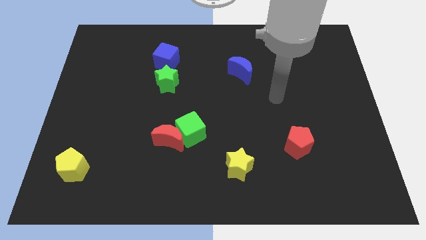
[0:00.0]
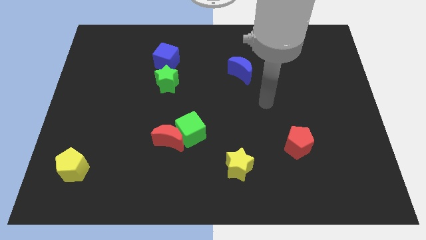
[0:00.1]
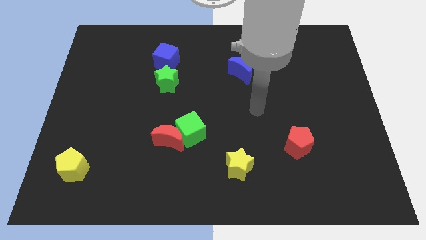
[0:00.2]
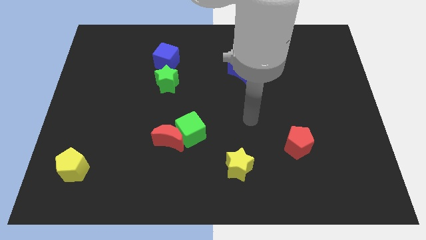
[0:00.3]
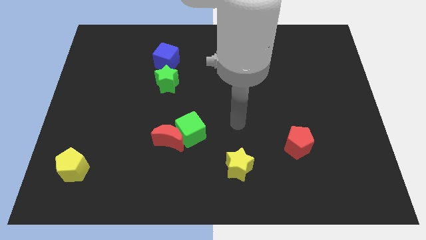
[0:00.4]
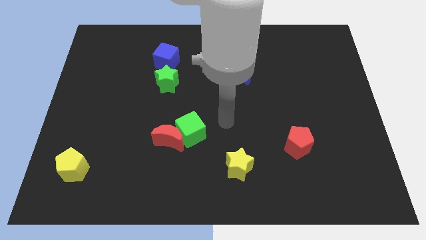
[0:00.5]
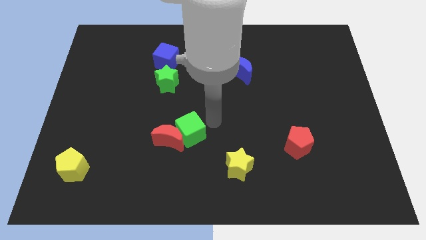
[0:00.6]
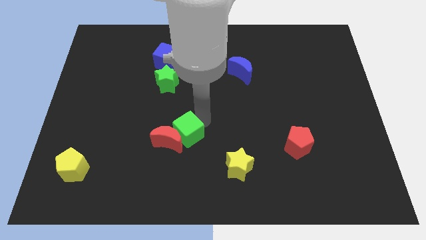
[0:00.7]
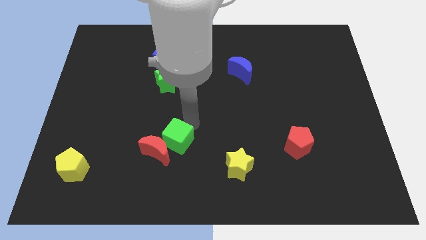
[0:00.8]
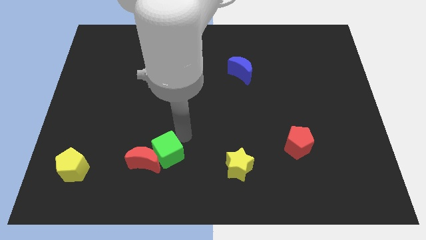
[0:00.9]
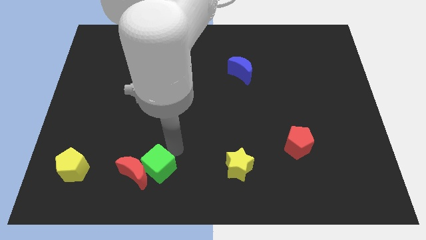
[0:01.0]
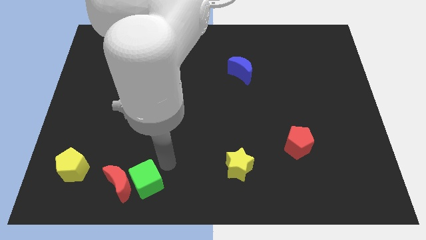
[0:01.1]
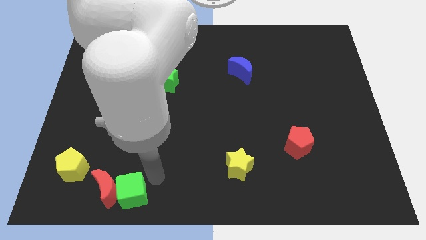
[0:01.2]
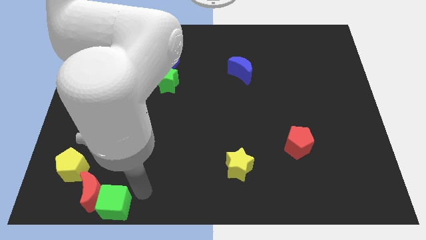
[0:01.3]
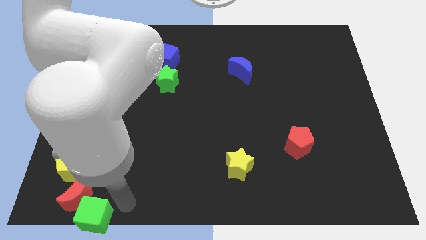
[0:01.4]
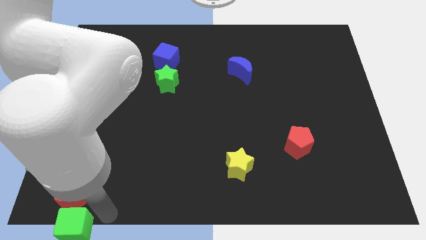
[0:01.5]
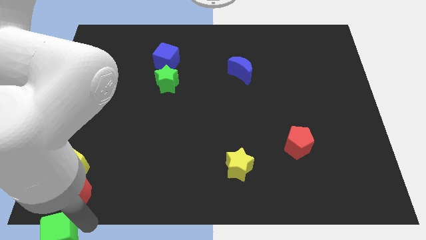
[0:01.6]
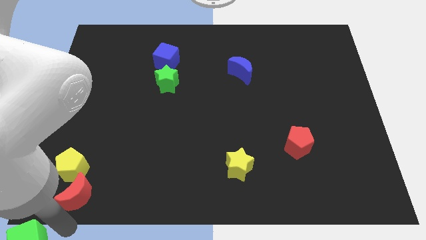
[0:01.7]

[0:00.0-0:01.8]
separate the red moon from the green cube

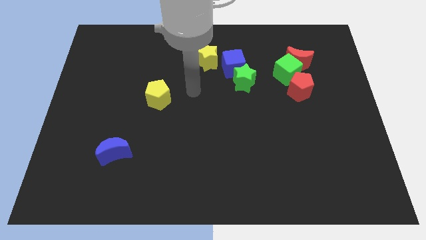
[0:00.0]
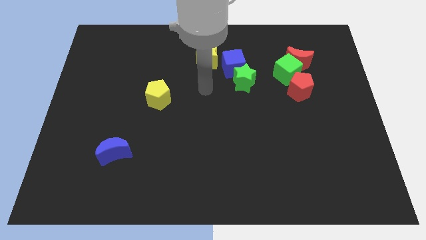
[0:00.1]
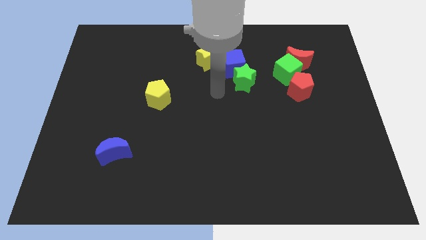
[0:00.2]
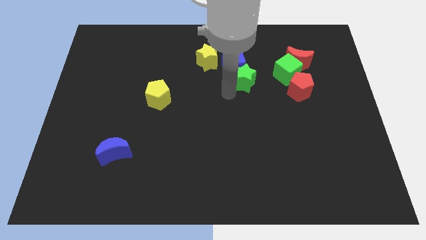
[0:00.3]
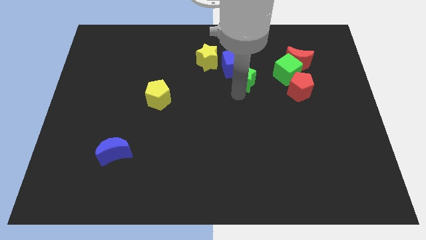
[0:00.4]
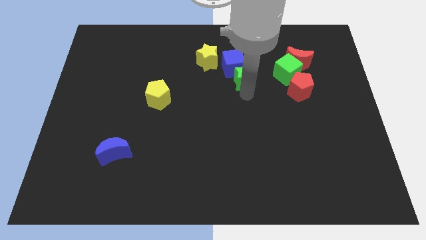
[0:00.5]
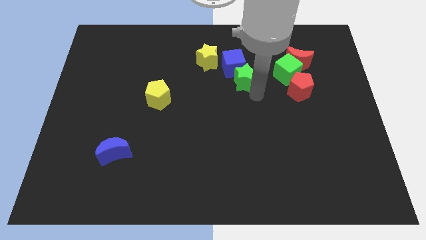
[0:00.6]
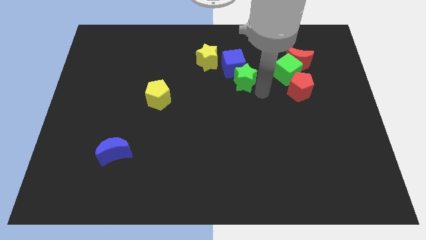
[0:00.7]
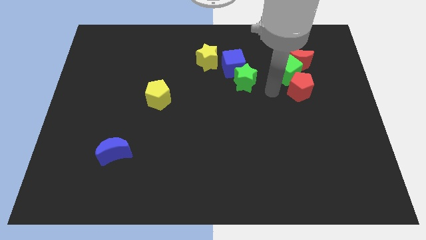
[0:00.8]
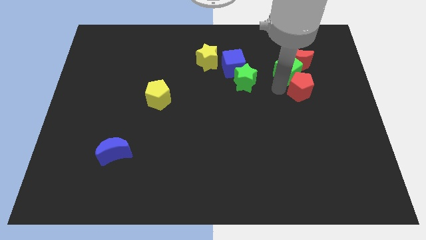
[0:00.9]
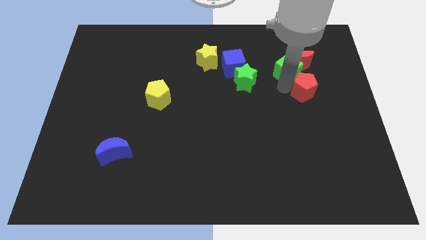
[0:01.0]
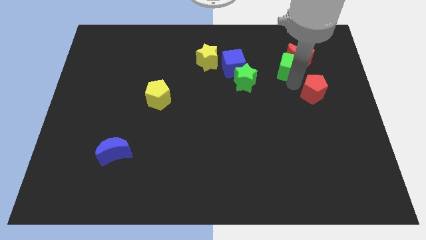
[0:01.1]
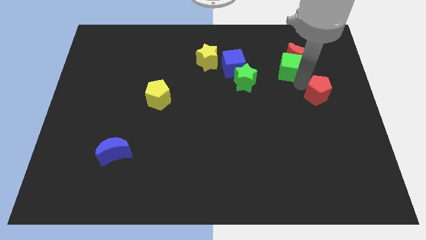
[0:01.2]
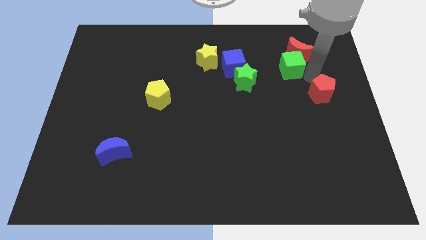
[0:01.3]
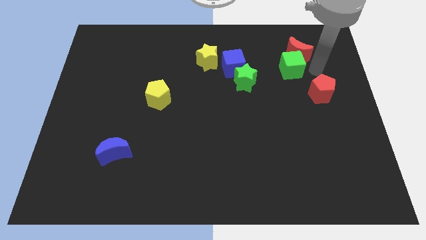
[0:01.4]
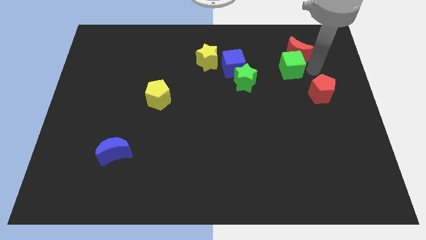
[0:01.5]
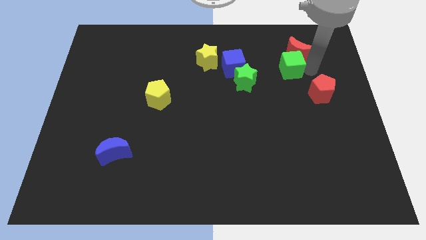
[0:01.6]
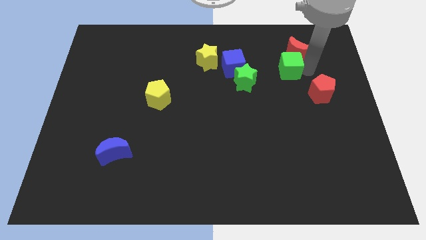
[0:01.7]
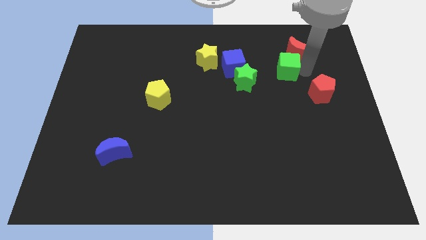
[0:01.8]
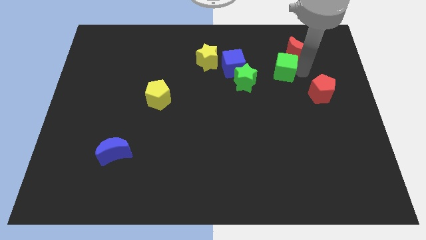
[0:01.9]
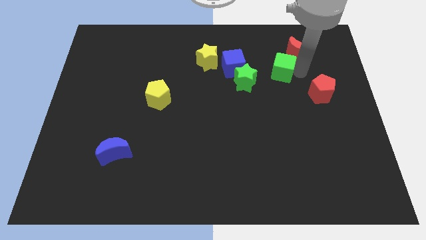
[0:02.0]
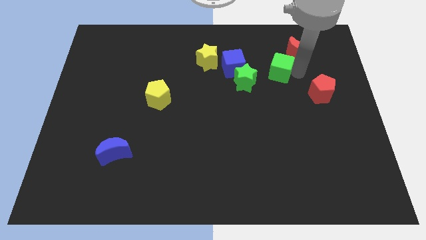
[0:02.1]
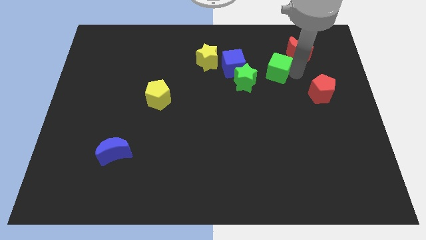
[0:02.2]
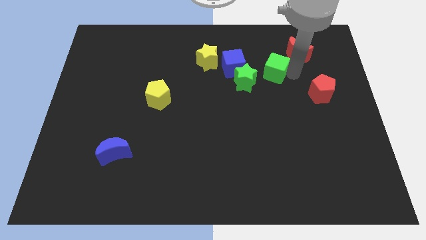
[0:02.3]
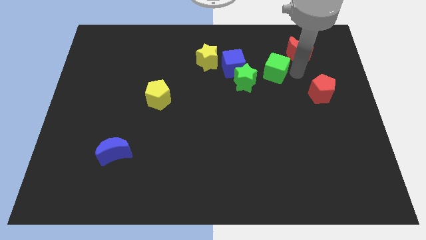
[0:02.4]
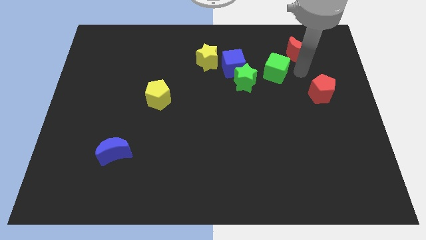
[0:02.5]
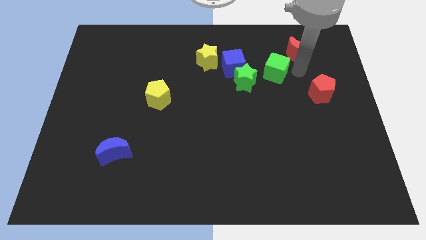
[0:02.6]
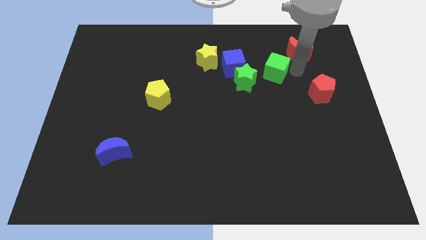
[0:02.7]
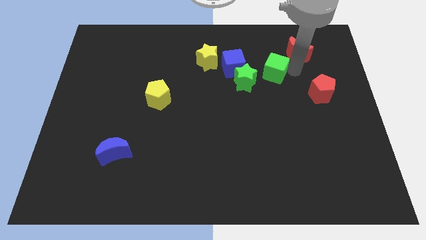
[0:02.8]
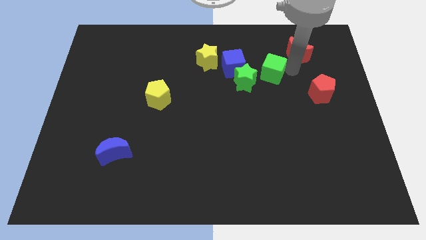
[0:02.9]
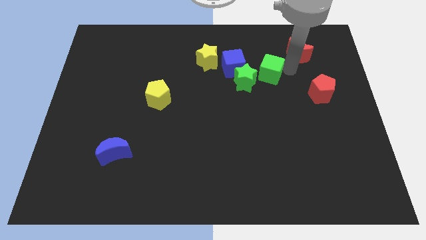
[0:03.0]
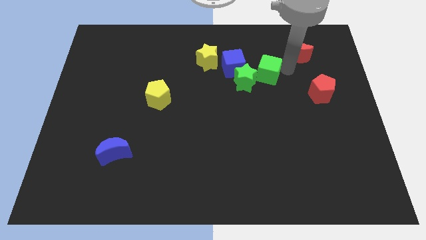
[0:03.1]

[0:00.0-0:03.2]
separate the green cube from the red moon and red pentagon

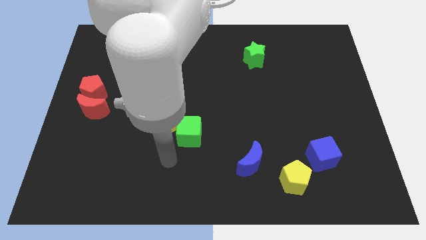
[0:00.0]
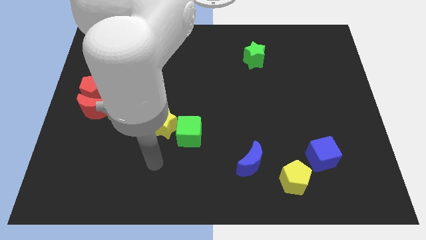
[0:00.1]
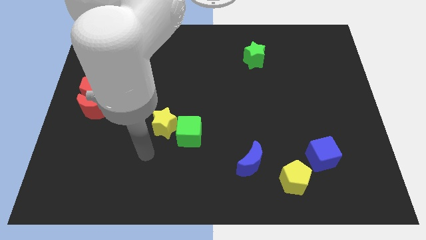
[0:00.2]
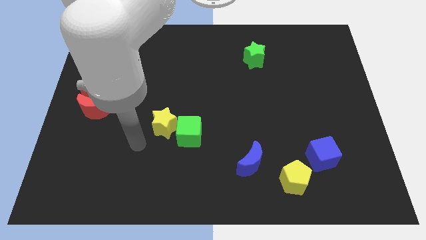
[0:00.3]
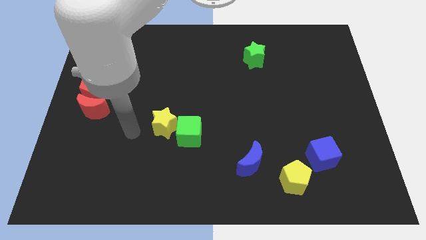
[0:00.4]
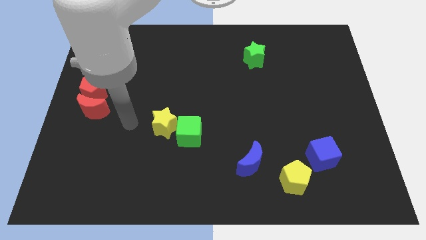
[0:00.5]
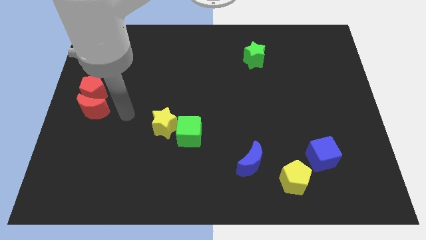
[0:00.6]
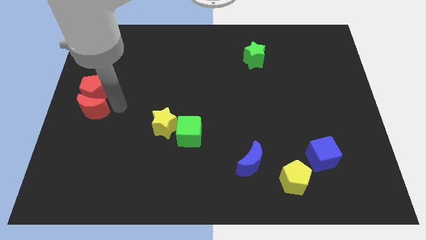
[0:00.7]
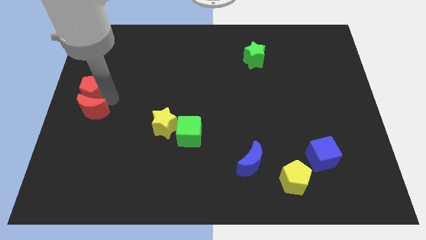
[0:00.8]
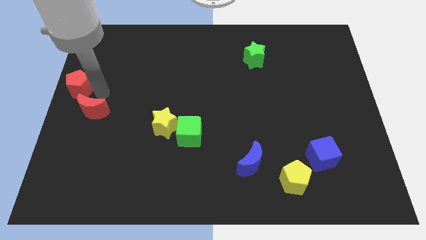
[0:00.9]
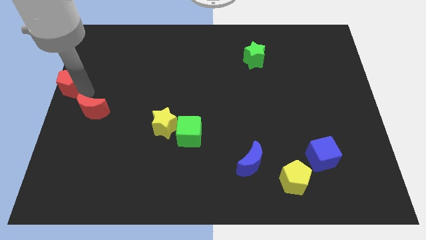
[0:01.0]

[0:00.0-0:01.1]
move the red moon away from the red pentagon

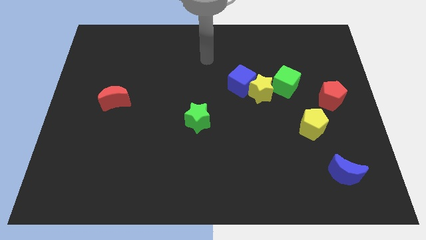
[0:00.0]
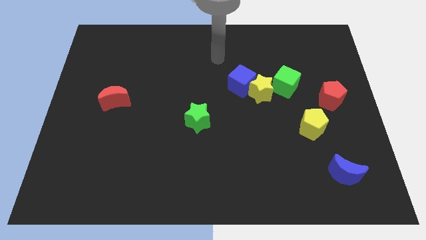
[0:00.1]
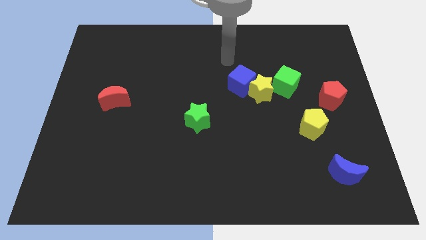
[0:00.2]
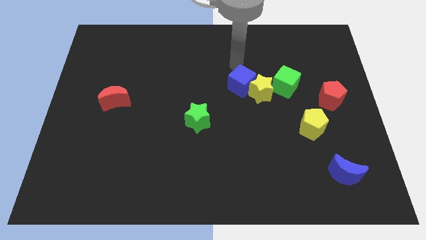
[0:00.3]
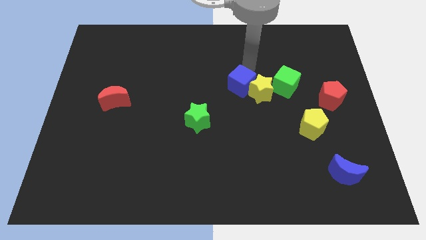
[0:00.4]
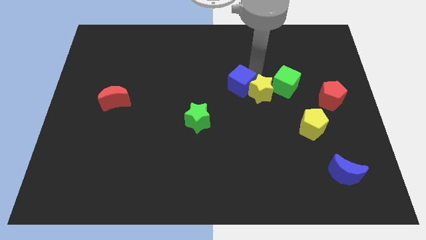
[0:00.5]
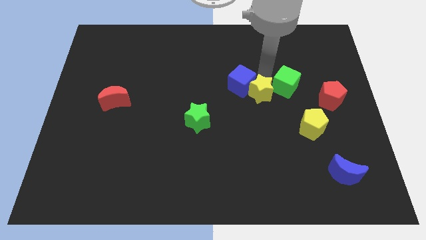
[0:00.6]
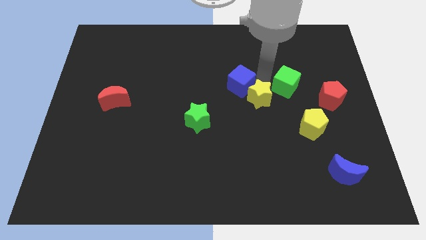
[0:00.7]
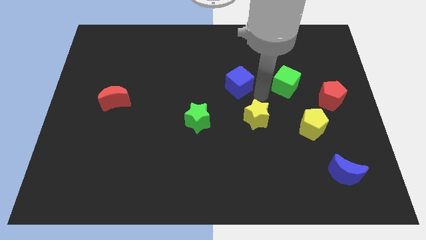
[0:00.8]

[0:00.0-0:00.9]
pull the blue cube apart from the yellow star

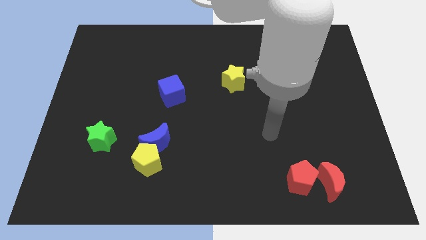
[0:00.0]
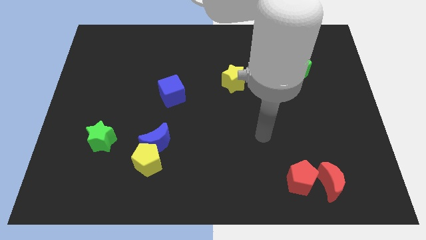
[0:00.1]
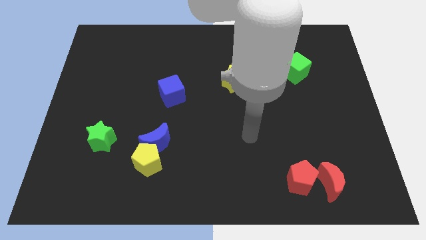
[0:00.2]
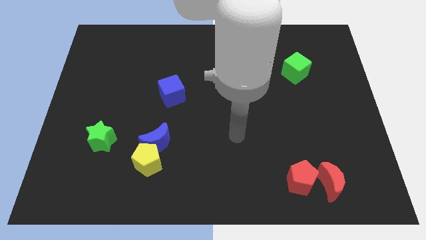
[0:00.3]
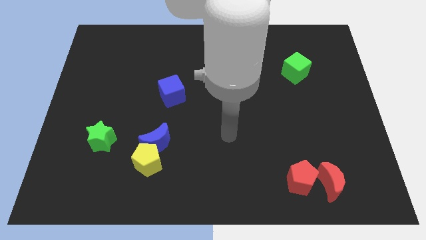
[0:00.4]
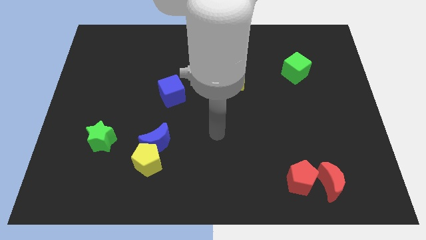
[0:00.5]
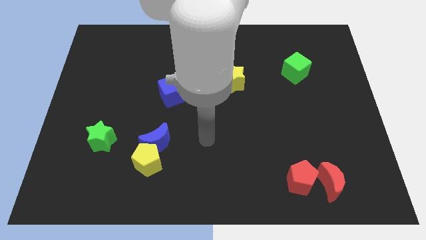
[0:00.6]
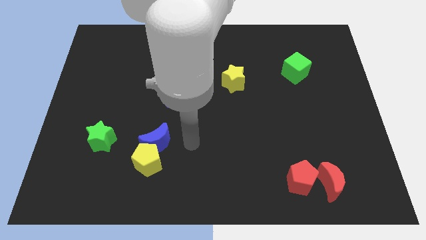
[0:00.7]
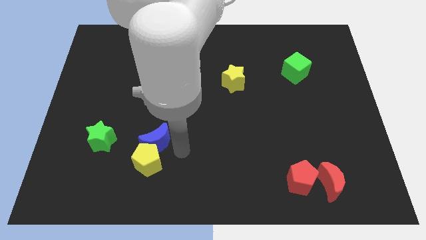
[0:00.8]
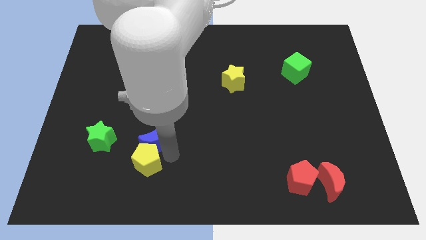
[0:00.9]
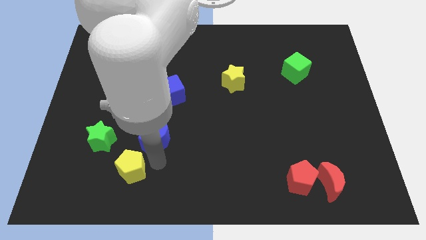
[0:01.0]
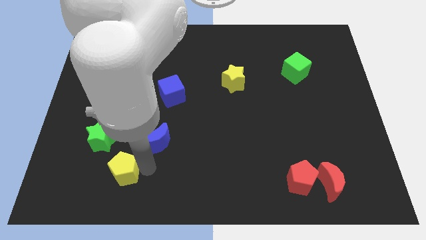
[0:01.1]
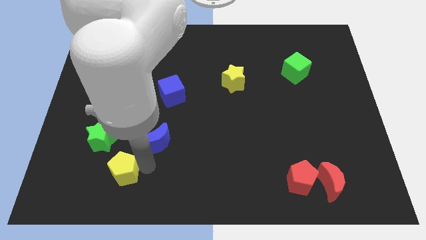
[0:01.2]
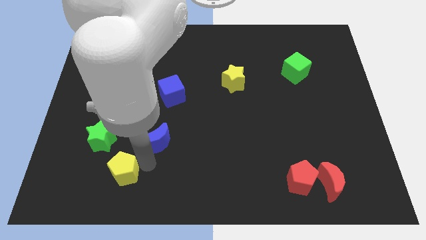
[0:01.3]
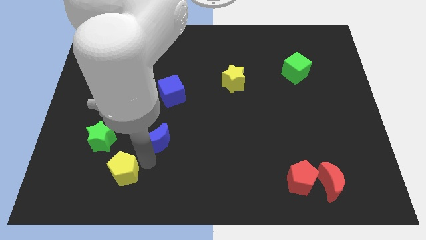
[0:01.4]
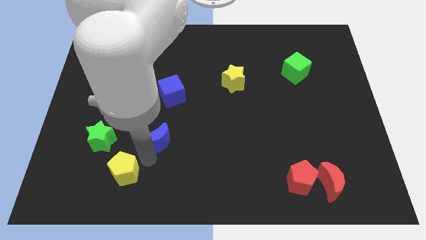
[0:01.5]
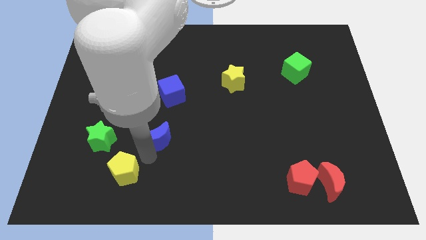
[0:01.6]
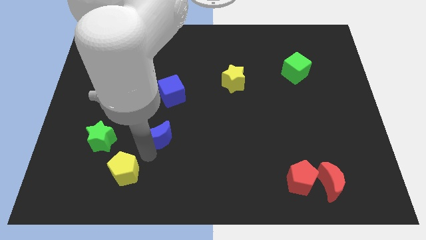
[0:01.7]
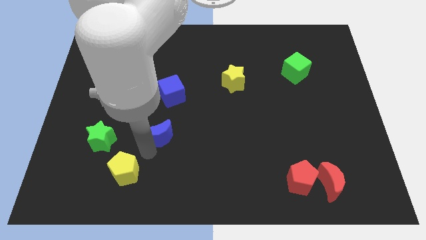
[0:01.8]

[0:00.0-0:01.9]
pull the blue moon apart from the yellow pentagon

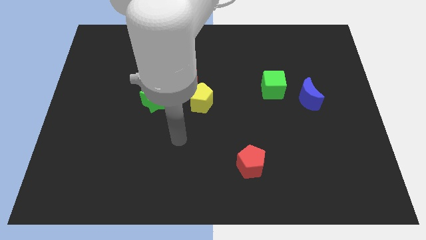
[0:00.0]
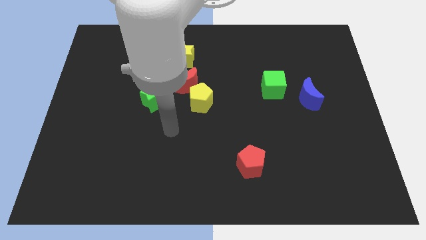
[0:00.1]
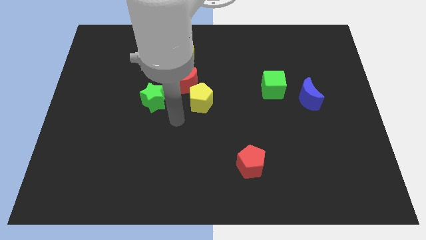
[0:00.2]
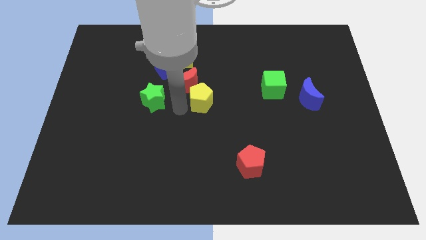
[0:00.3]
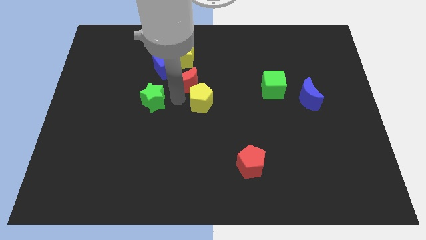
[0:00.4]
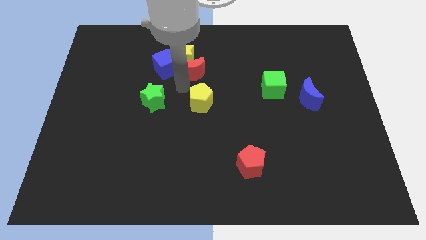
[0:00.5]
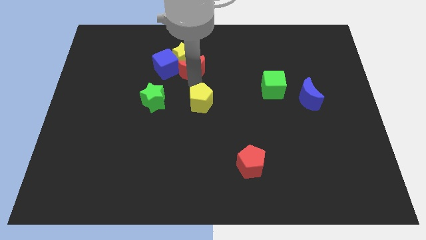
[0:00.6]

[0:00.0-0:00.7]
move the yellow pentagon away from the red moon
